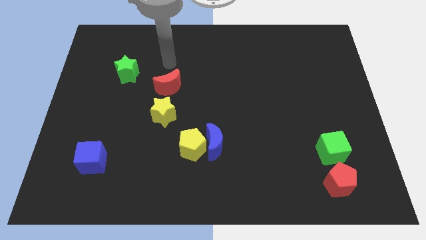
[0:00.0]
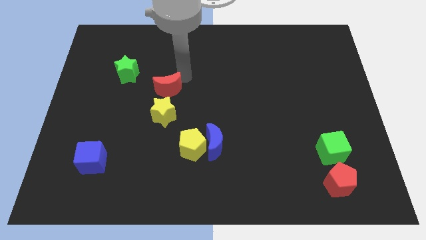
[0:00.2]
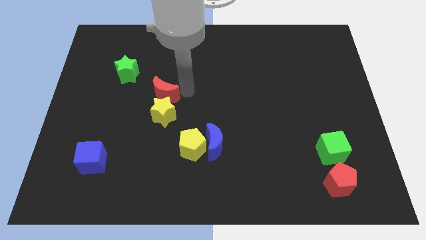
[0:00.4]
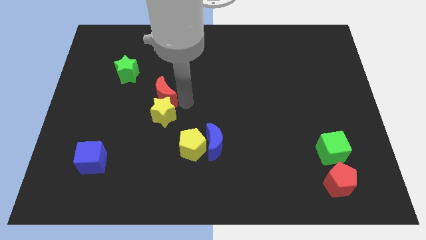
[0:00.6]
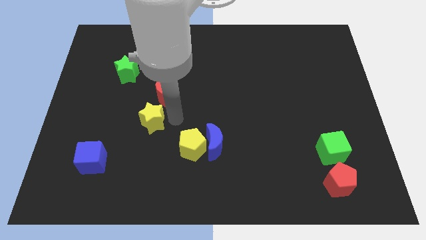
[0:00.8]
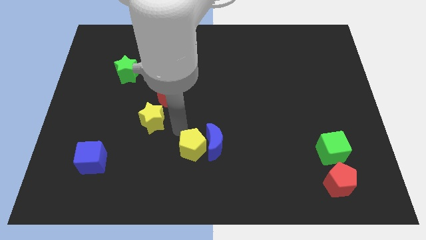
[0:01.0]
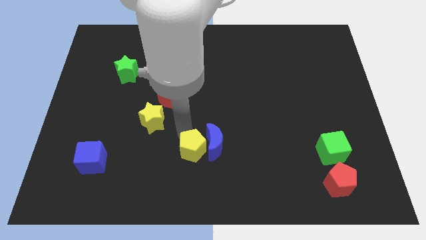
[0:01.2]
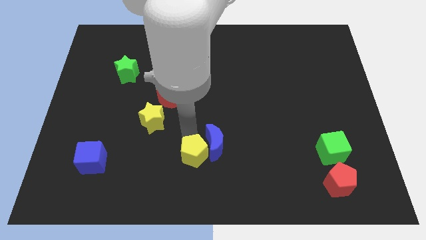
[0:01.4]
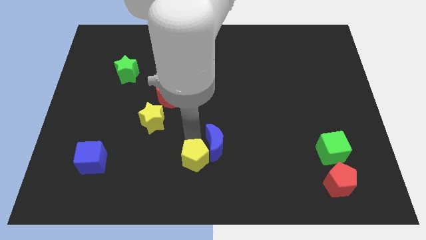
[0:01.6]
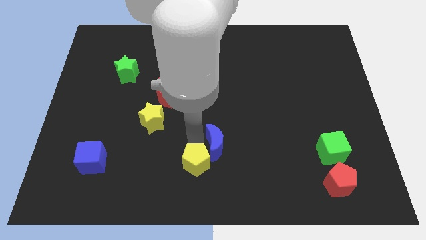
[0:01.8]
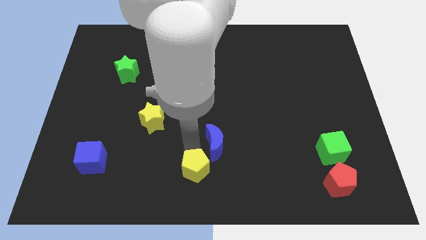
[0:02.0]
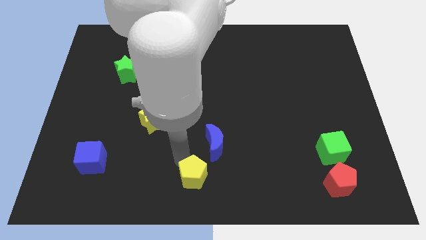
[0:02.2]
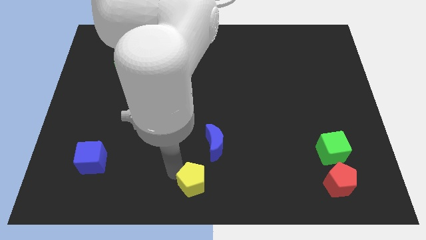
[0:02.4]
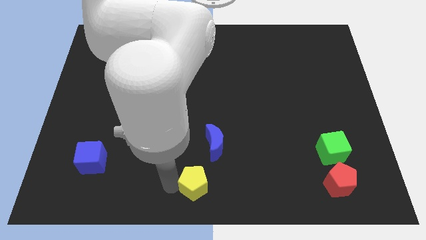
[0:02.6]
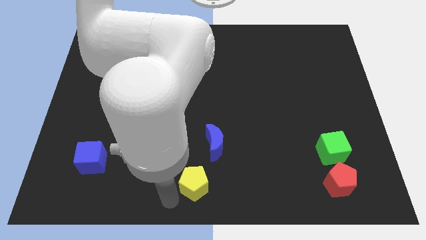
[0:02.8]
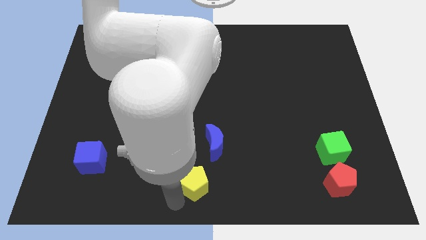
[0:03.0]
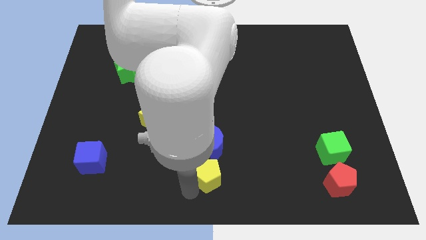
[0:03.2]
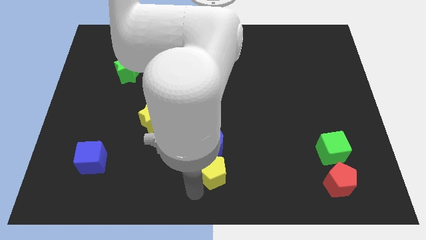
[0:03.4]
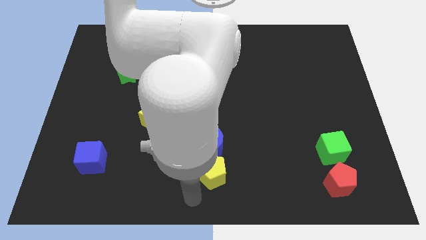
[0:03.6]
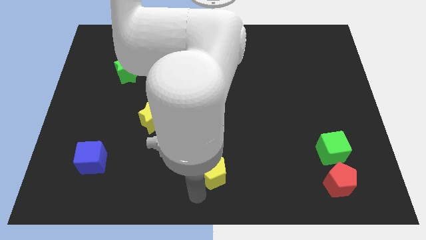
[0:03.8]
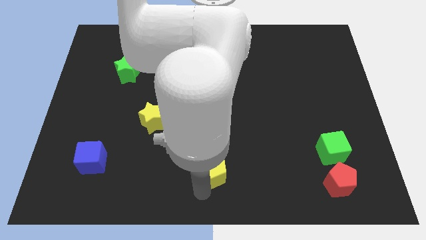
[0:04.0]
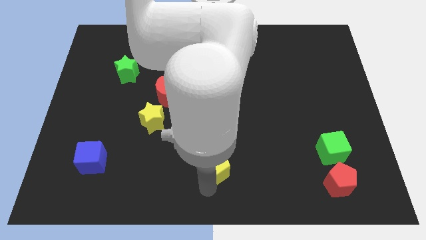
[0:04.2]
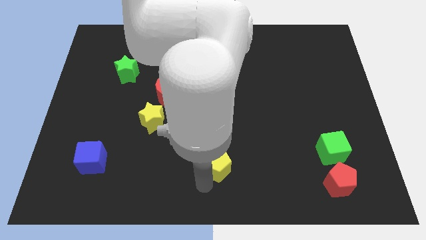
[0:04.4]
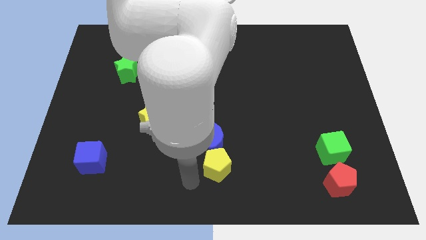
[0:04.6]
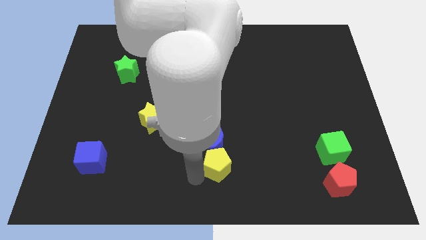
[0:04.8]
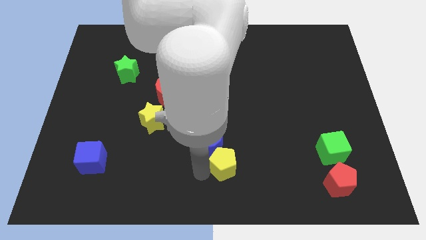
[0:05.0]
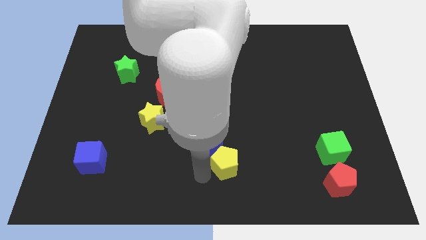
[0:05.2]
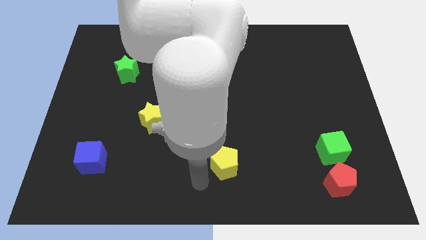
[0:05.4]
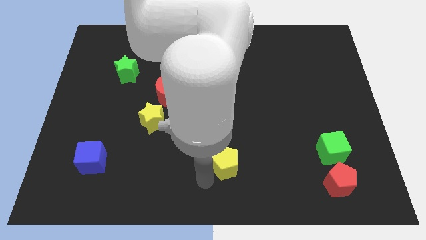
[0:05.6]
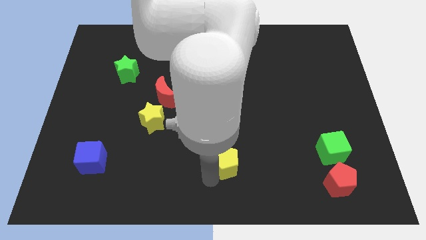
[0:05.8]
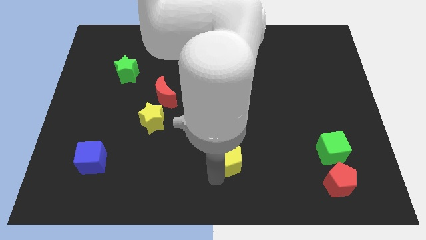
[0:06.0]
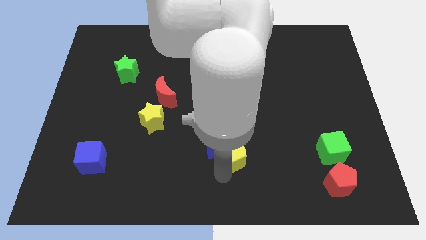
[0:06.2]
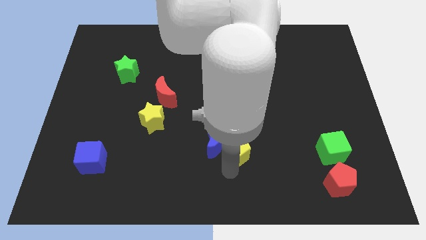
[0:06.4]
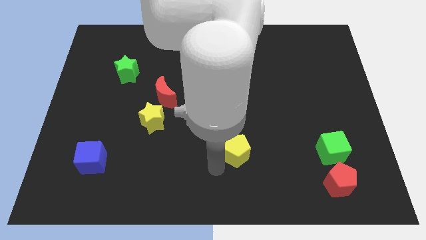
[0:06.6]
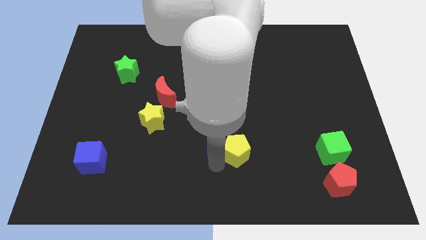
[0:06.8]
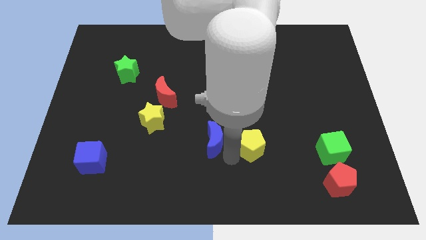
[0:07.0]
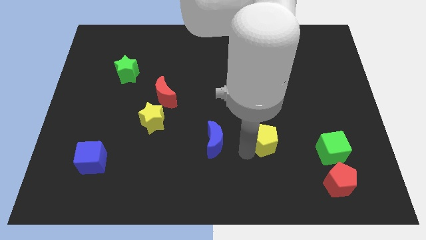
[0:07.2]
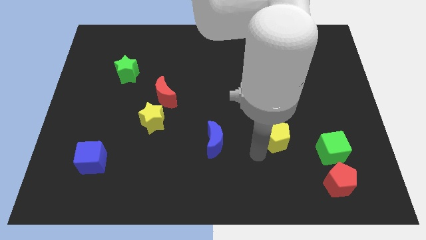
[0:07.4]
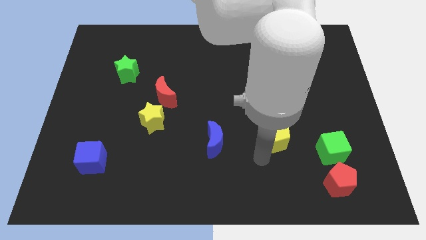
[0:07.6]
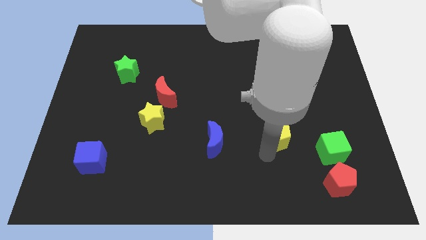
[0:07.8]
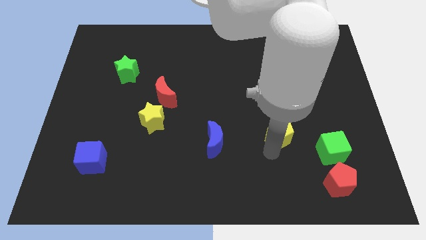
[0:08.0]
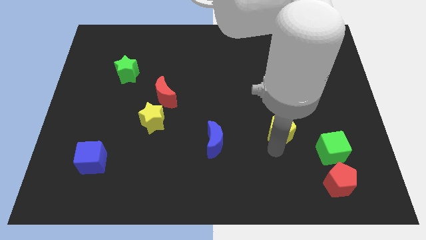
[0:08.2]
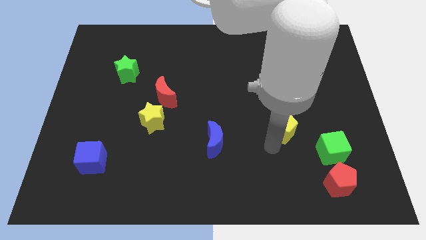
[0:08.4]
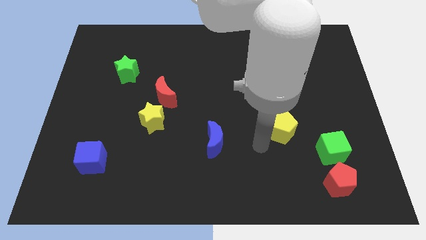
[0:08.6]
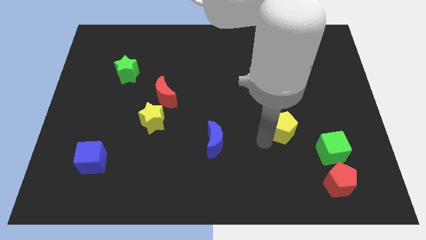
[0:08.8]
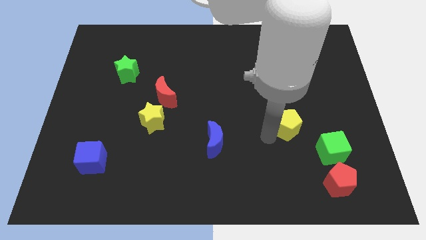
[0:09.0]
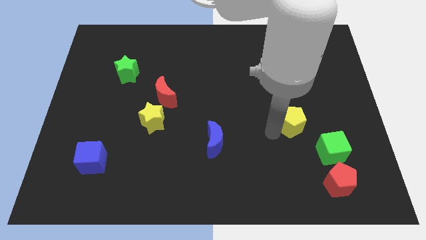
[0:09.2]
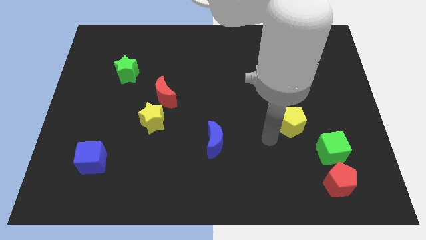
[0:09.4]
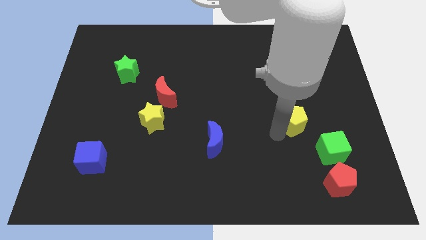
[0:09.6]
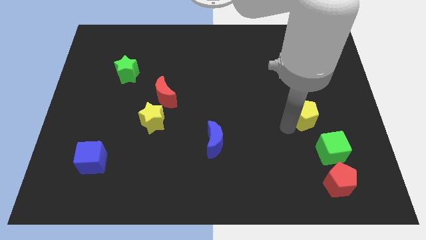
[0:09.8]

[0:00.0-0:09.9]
put the yellow pentagon to the top of the green cube

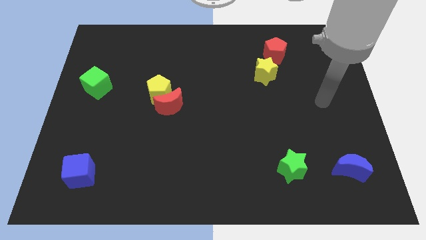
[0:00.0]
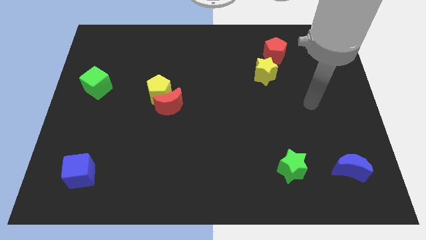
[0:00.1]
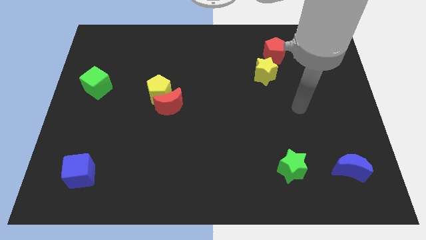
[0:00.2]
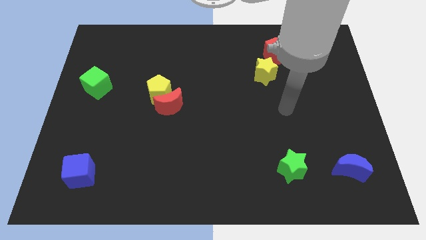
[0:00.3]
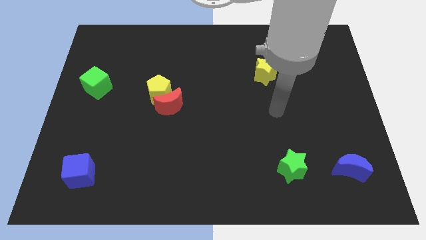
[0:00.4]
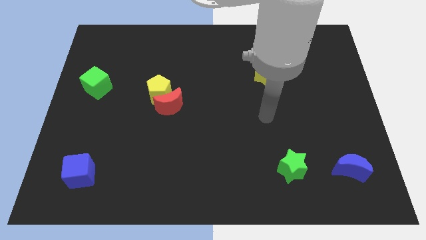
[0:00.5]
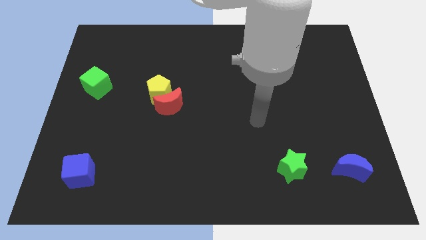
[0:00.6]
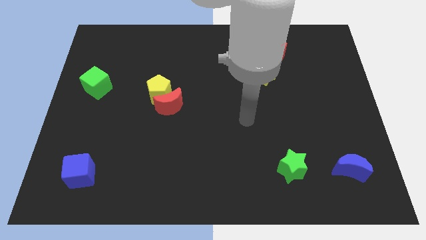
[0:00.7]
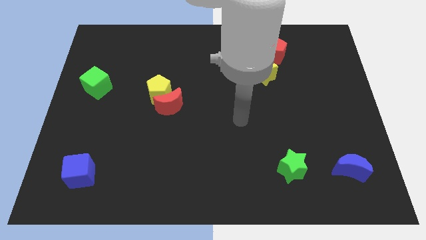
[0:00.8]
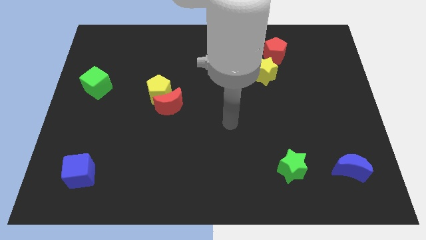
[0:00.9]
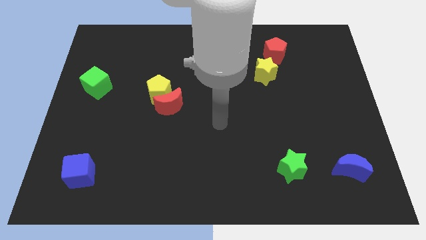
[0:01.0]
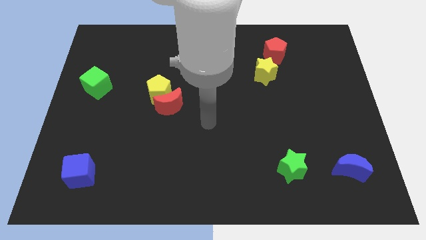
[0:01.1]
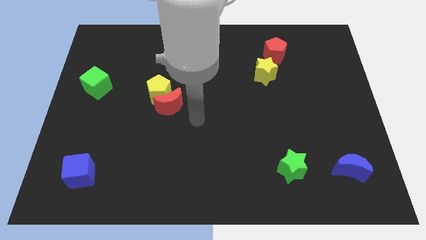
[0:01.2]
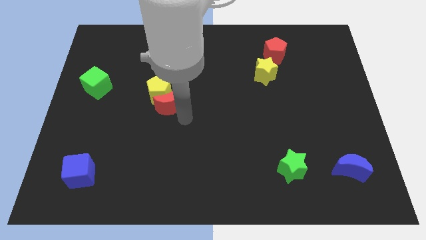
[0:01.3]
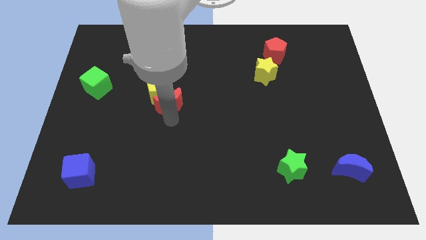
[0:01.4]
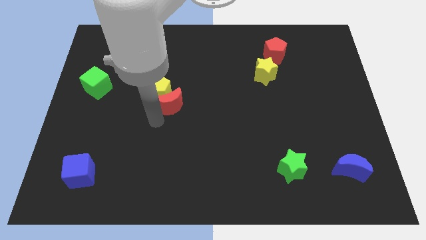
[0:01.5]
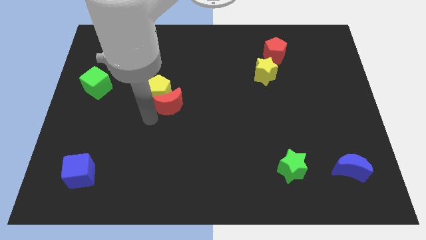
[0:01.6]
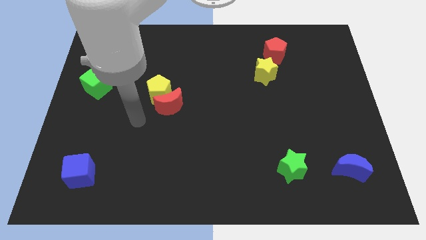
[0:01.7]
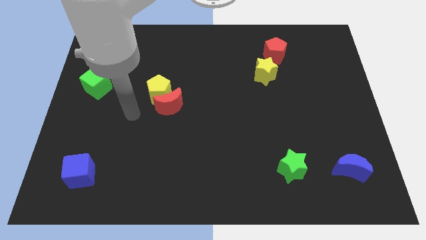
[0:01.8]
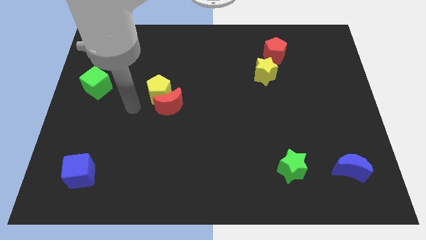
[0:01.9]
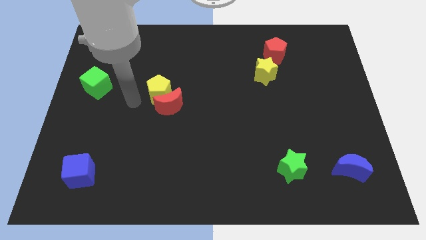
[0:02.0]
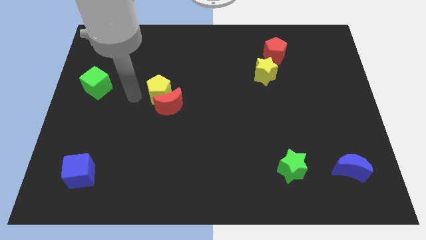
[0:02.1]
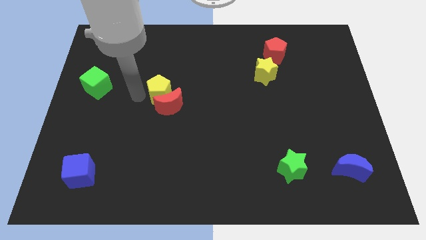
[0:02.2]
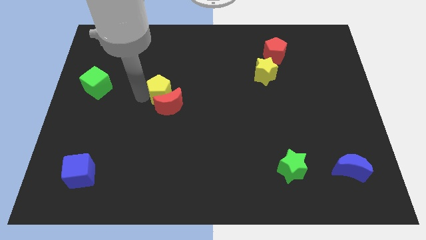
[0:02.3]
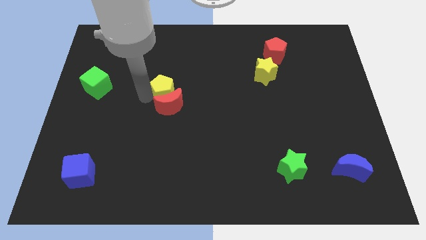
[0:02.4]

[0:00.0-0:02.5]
slide the yellow pentagon diagonally up and to the right of the red moon
